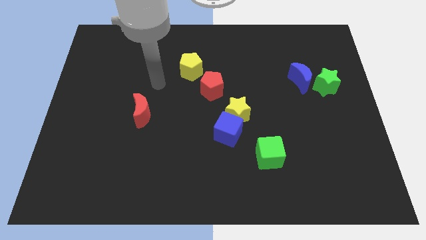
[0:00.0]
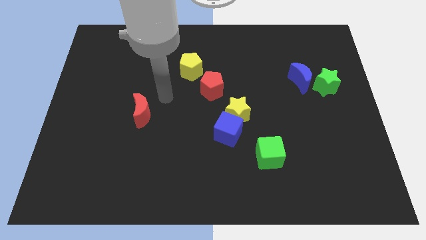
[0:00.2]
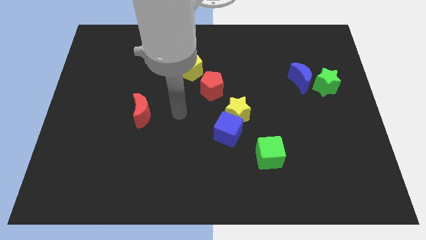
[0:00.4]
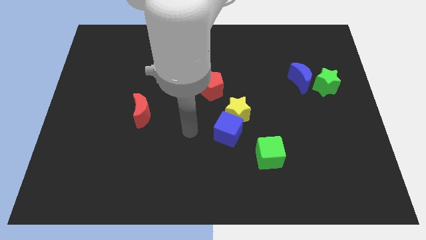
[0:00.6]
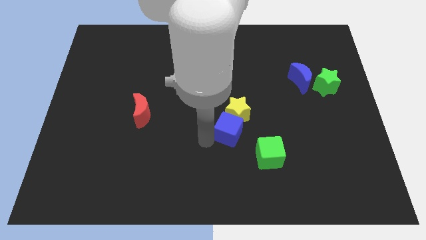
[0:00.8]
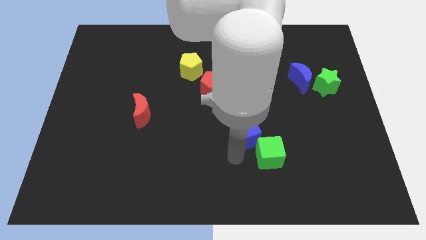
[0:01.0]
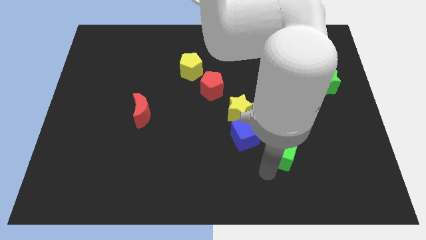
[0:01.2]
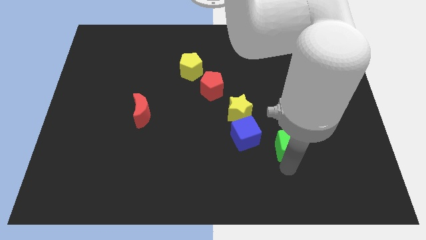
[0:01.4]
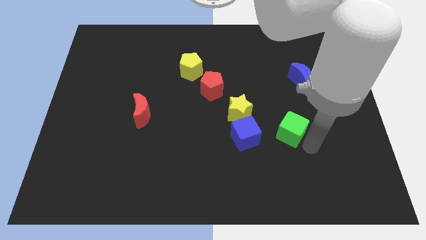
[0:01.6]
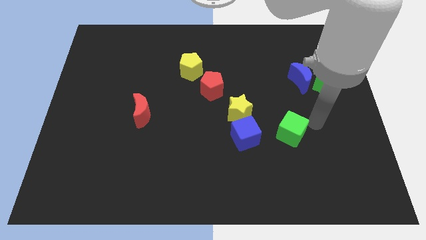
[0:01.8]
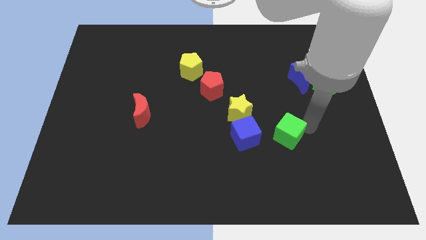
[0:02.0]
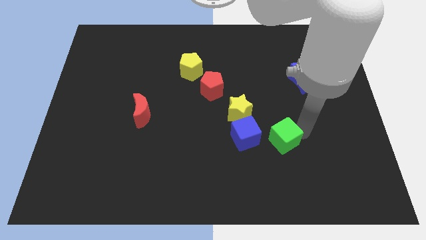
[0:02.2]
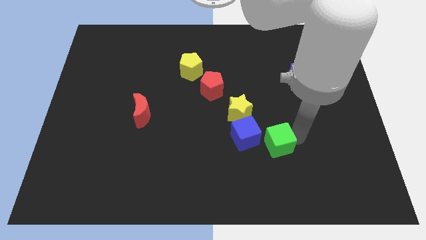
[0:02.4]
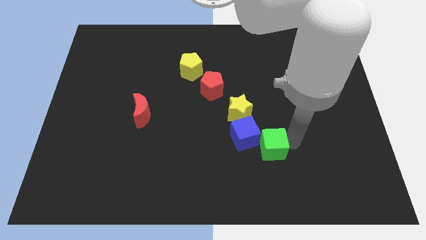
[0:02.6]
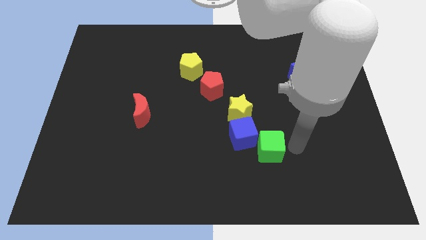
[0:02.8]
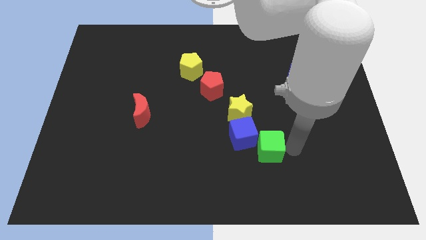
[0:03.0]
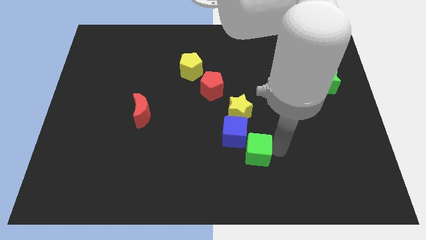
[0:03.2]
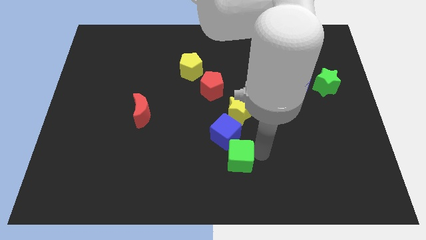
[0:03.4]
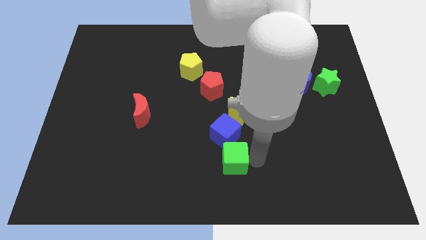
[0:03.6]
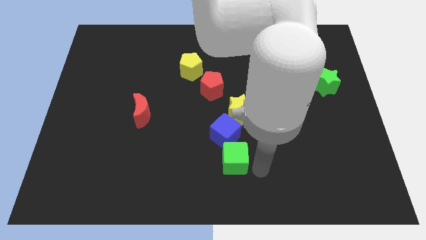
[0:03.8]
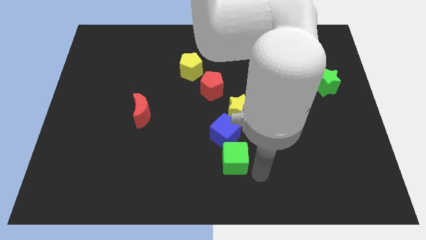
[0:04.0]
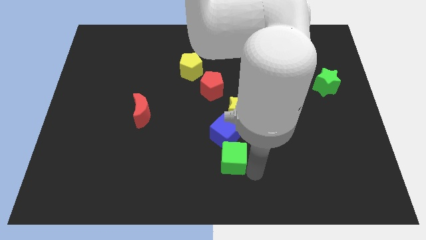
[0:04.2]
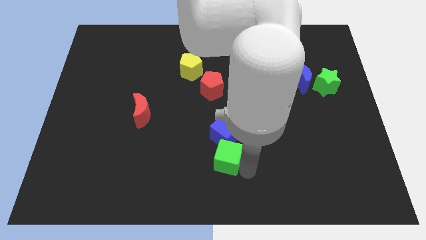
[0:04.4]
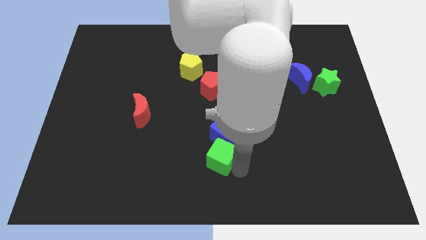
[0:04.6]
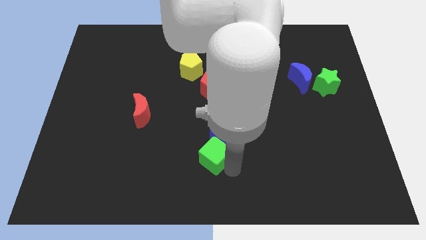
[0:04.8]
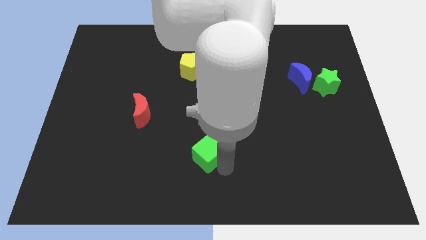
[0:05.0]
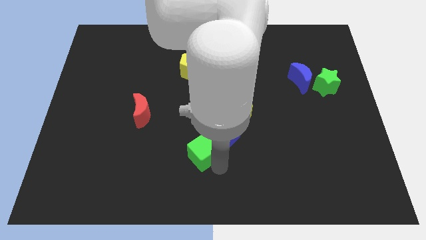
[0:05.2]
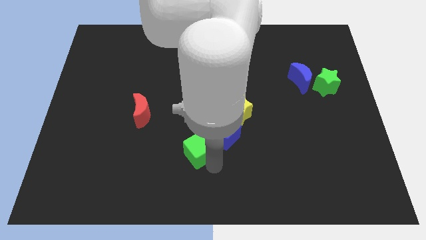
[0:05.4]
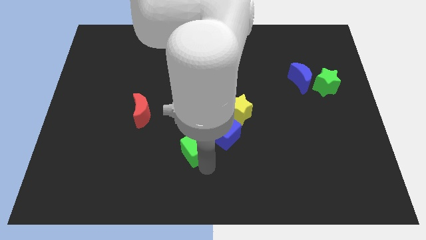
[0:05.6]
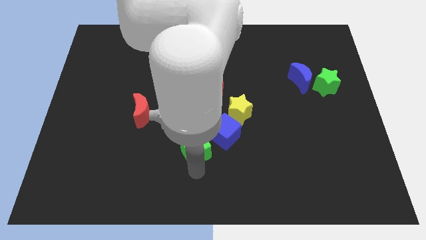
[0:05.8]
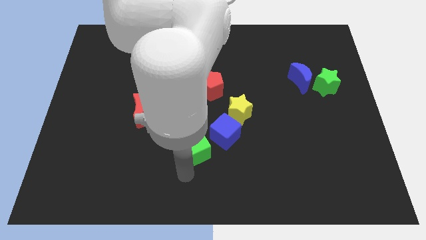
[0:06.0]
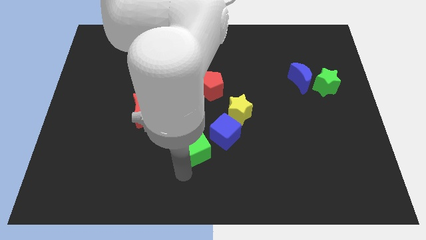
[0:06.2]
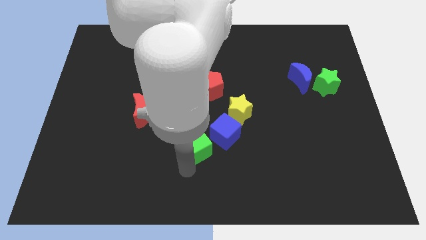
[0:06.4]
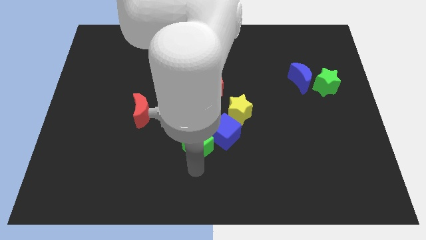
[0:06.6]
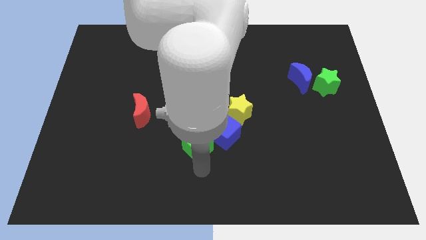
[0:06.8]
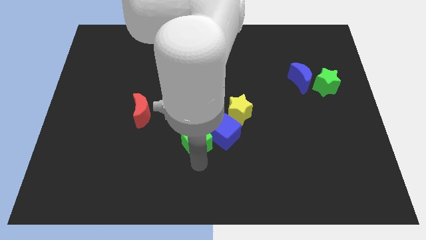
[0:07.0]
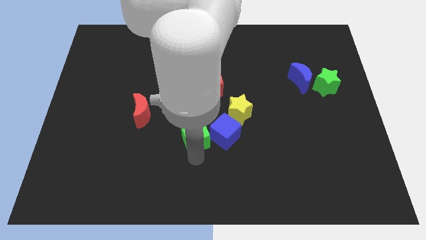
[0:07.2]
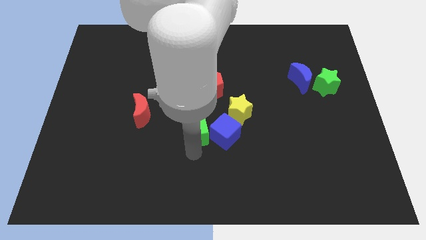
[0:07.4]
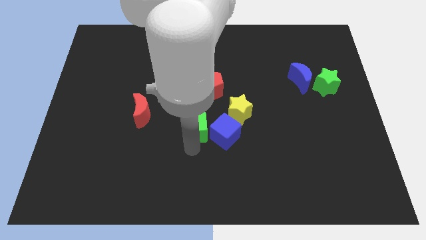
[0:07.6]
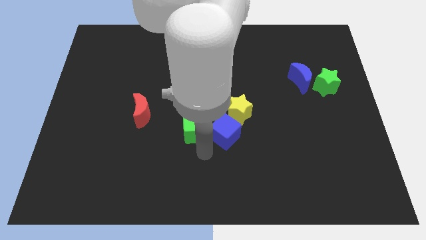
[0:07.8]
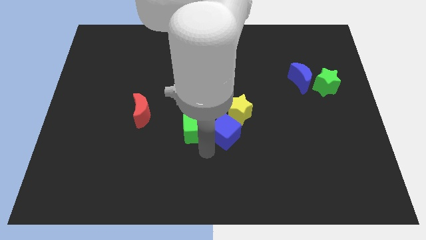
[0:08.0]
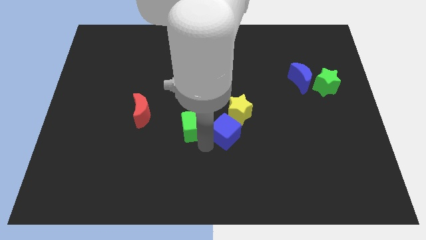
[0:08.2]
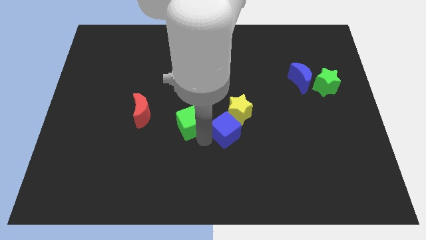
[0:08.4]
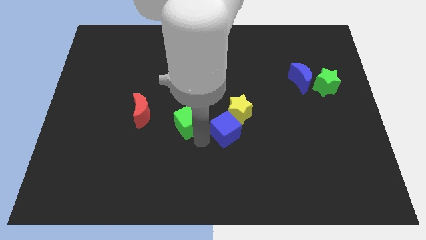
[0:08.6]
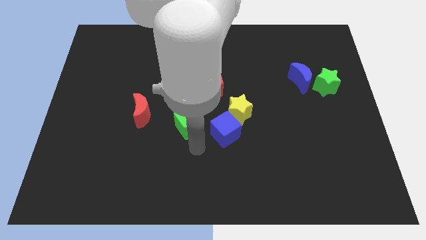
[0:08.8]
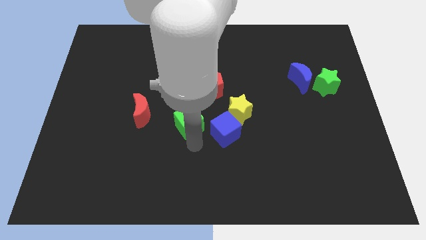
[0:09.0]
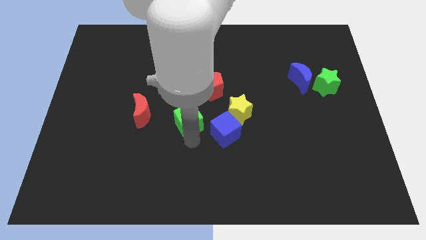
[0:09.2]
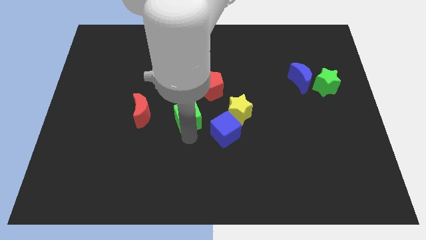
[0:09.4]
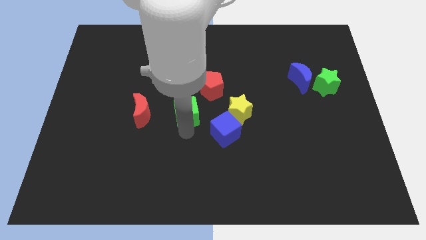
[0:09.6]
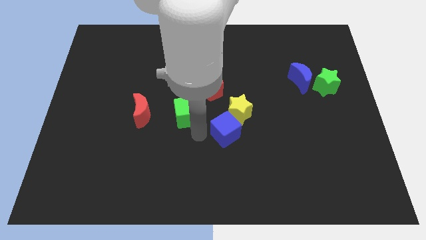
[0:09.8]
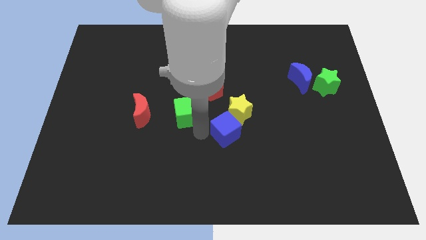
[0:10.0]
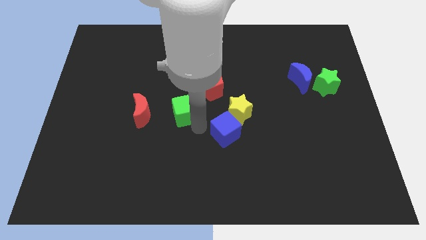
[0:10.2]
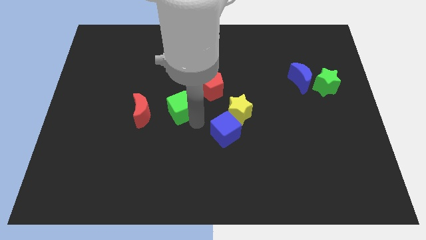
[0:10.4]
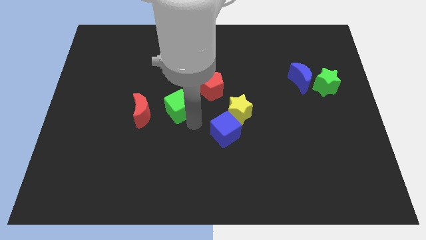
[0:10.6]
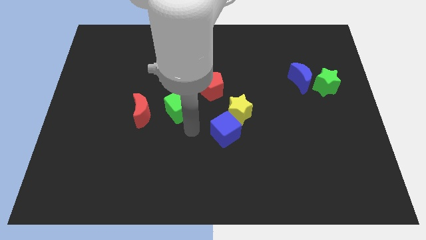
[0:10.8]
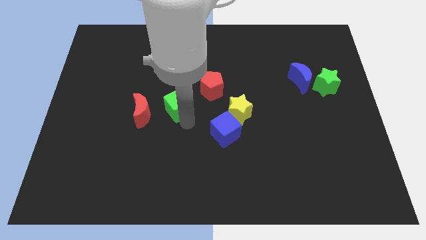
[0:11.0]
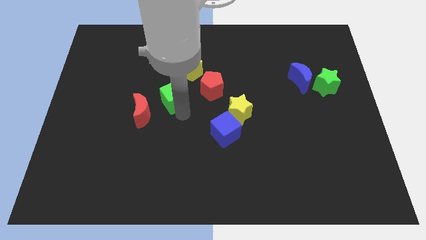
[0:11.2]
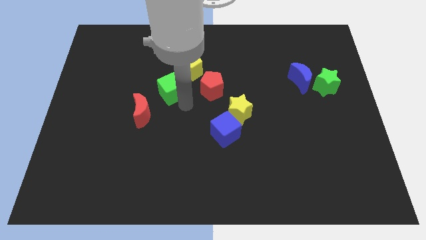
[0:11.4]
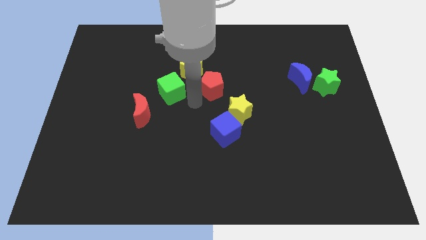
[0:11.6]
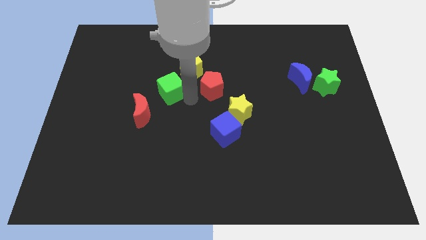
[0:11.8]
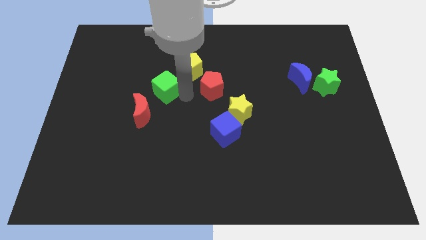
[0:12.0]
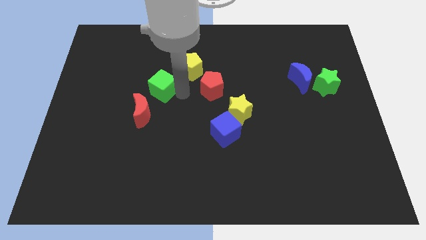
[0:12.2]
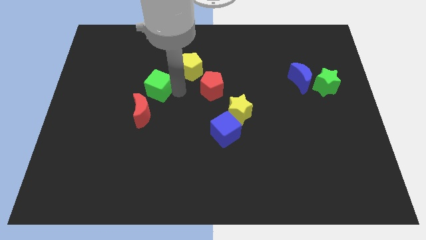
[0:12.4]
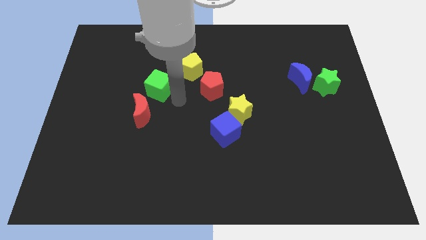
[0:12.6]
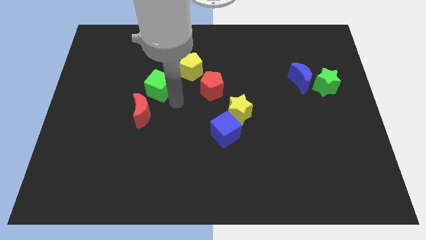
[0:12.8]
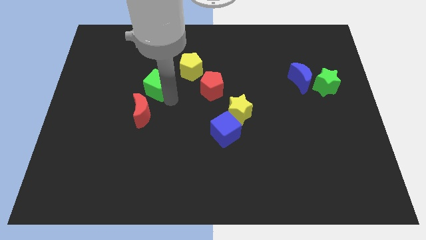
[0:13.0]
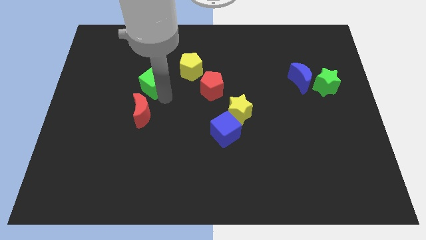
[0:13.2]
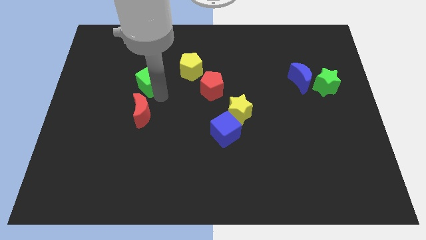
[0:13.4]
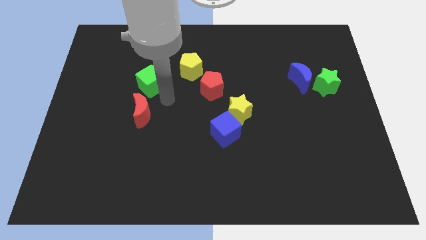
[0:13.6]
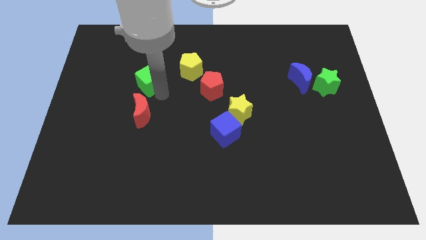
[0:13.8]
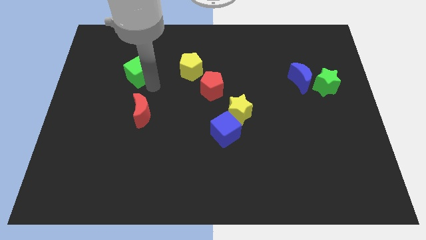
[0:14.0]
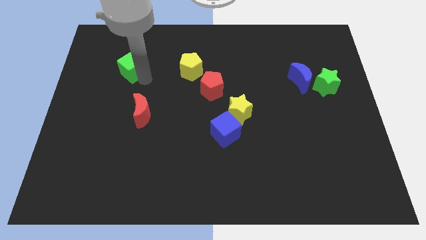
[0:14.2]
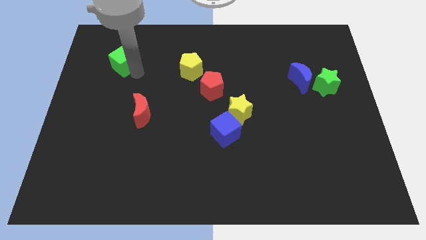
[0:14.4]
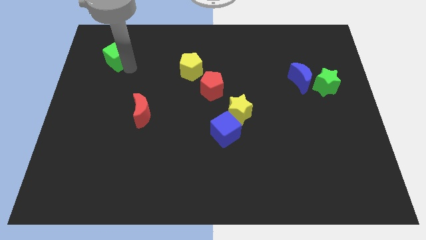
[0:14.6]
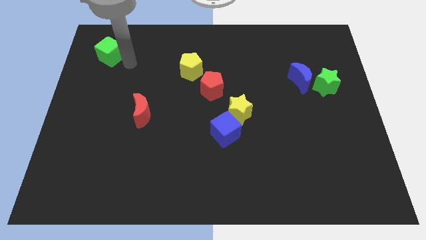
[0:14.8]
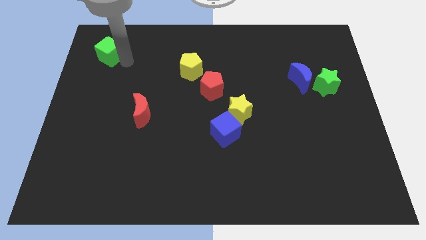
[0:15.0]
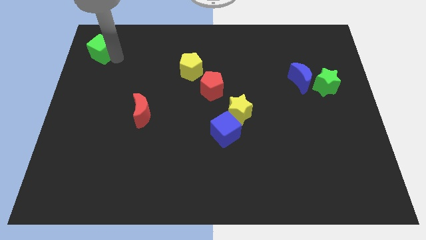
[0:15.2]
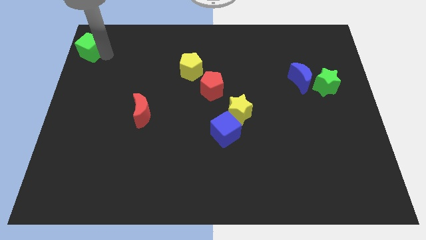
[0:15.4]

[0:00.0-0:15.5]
move the green cube to the top left corner
